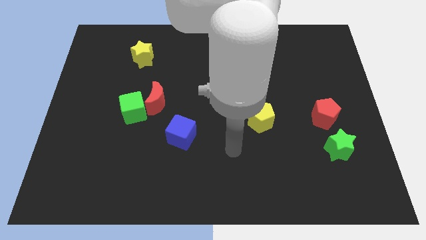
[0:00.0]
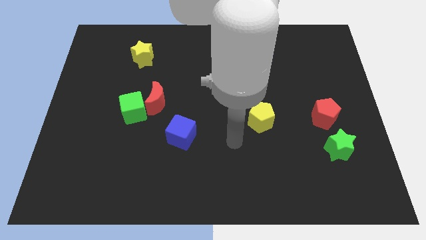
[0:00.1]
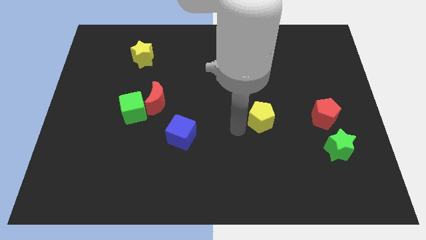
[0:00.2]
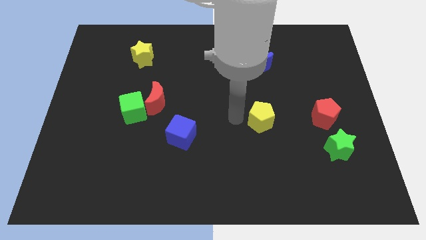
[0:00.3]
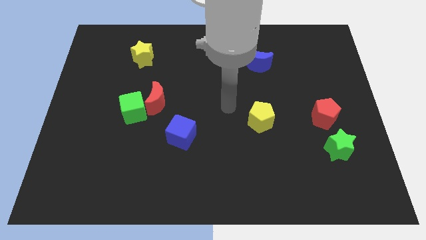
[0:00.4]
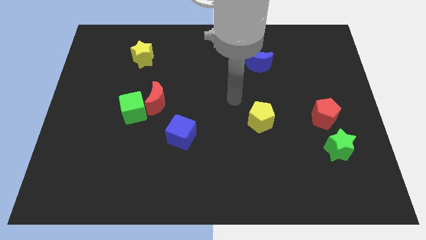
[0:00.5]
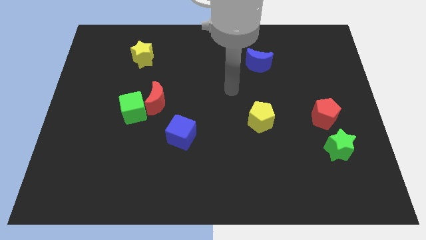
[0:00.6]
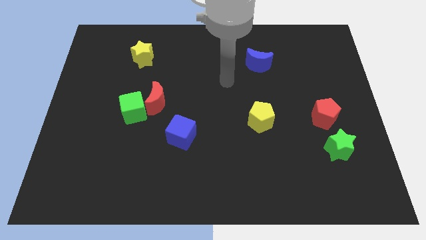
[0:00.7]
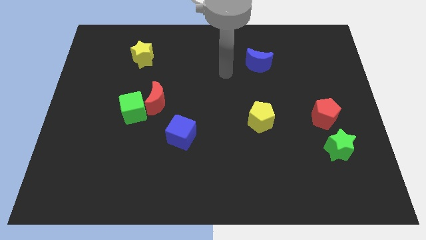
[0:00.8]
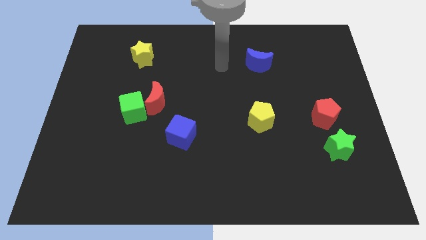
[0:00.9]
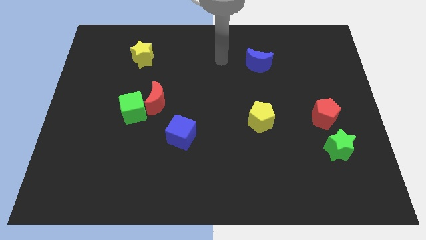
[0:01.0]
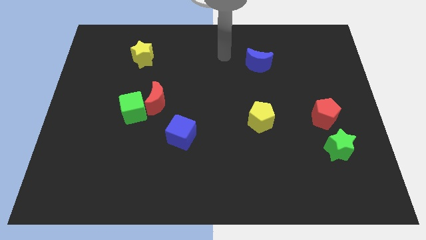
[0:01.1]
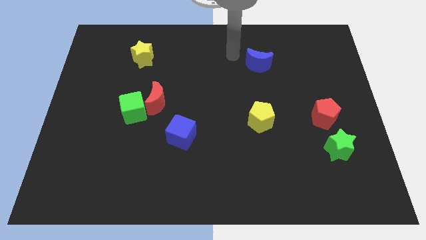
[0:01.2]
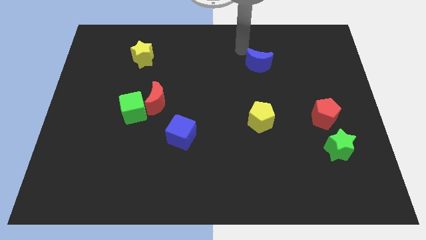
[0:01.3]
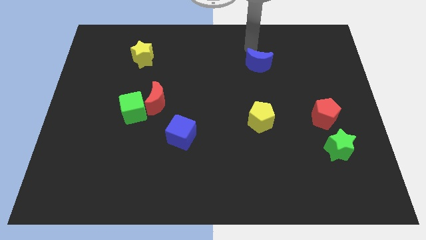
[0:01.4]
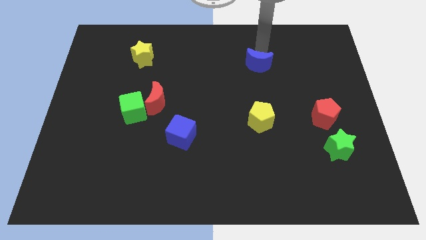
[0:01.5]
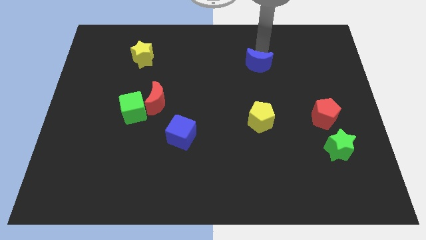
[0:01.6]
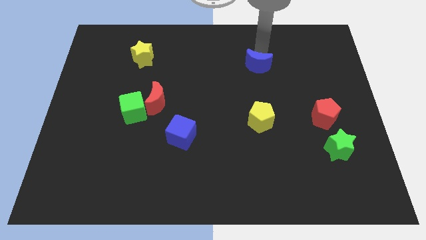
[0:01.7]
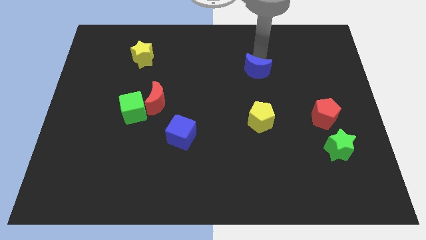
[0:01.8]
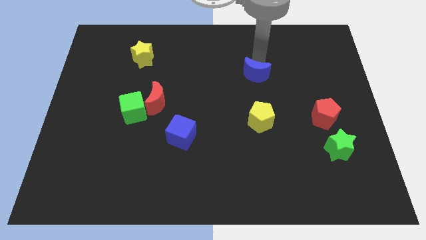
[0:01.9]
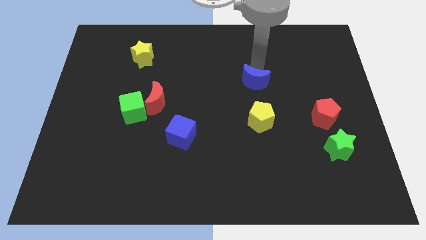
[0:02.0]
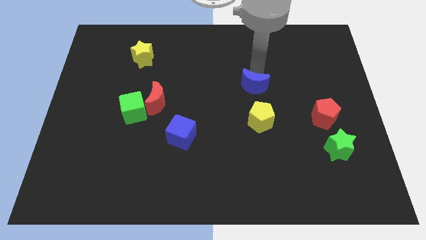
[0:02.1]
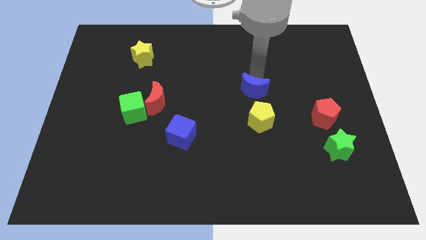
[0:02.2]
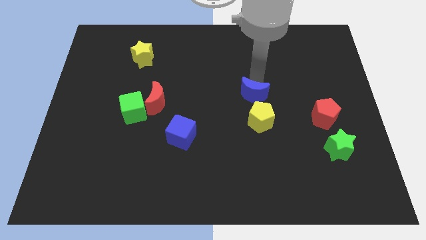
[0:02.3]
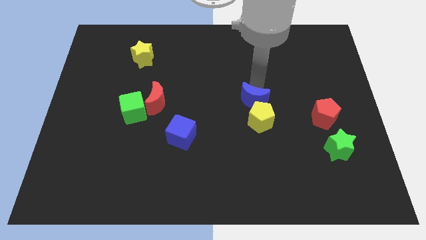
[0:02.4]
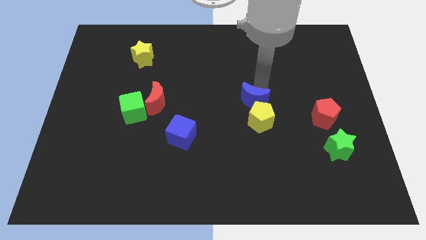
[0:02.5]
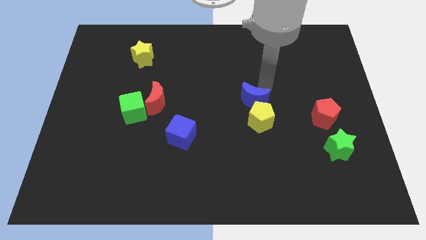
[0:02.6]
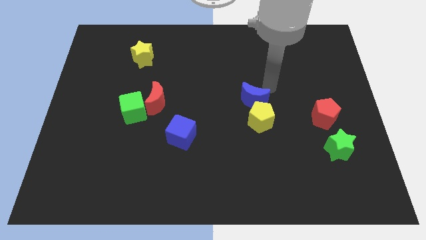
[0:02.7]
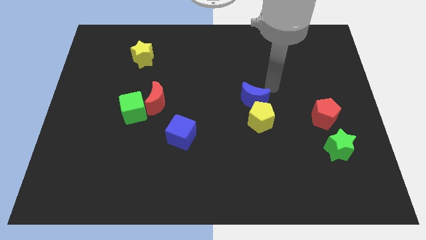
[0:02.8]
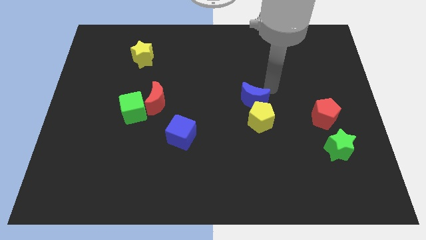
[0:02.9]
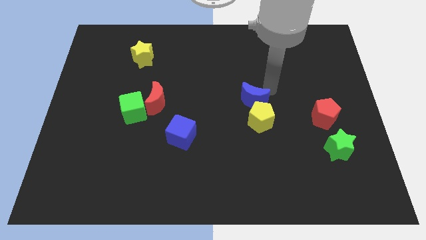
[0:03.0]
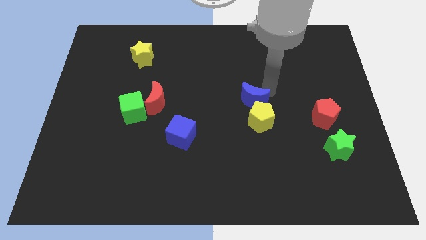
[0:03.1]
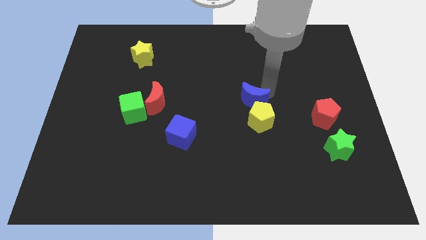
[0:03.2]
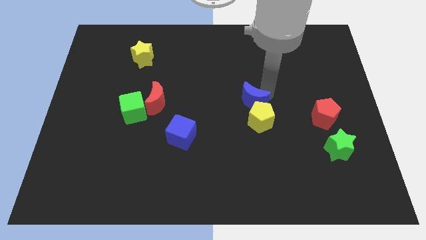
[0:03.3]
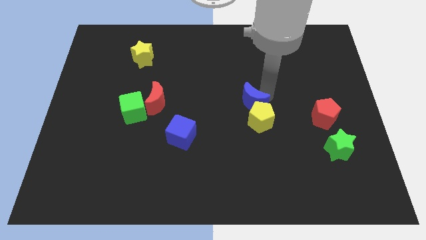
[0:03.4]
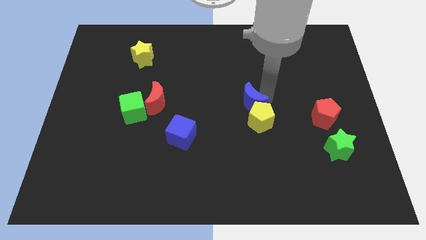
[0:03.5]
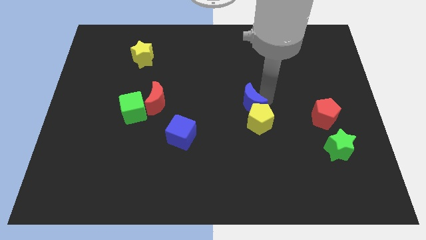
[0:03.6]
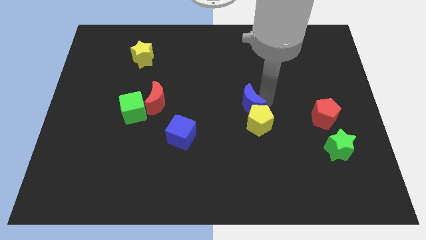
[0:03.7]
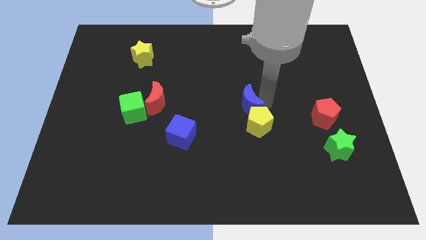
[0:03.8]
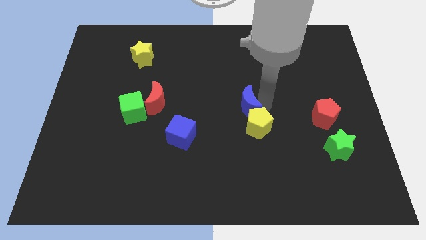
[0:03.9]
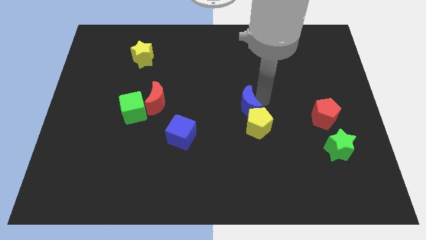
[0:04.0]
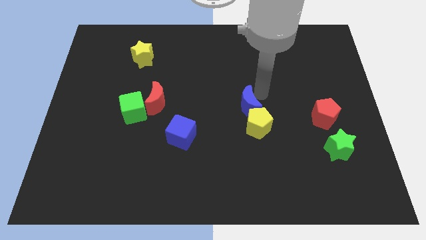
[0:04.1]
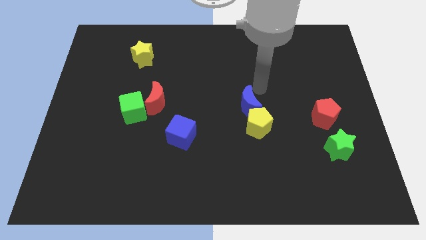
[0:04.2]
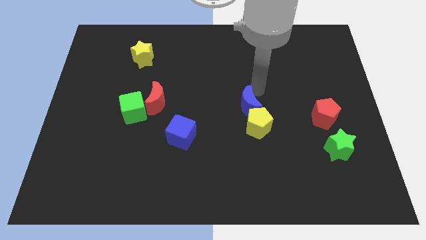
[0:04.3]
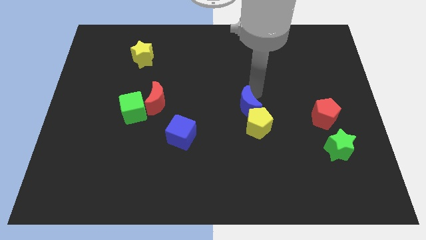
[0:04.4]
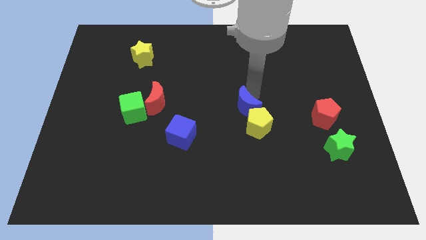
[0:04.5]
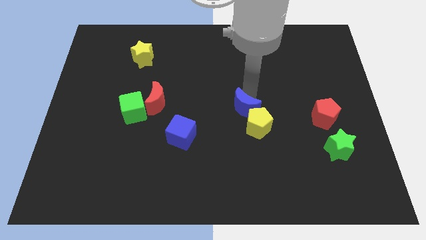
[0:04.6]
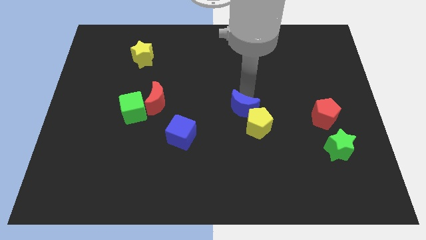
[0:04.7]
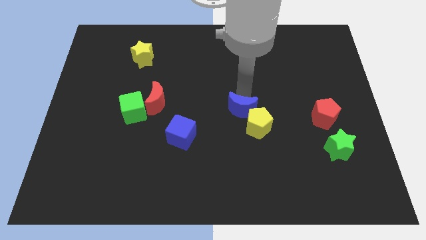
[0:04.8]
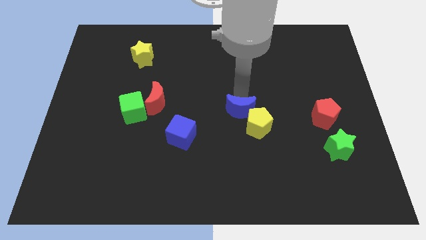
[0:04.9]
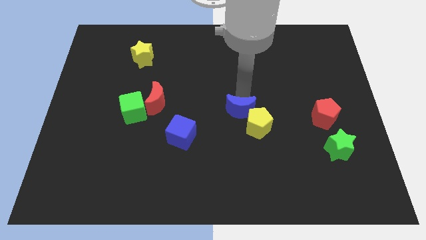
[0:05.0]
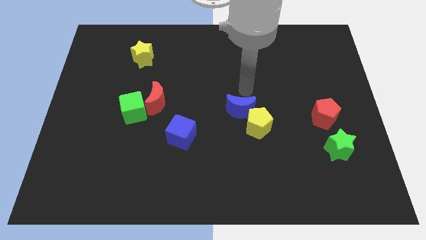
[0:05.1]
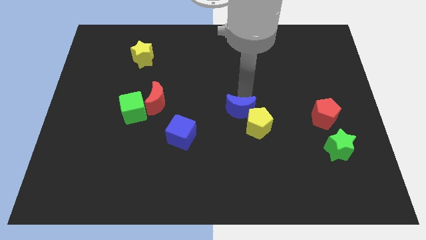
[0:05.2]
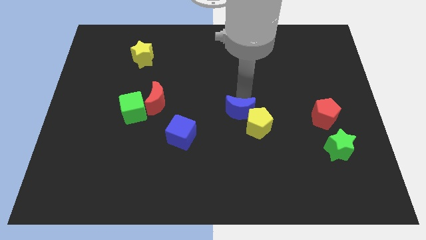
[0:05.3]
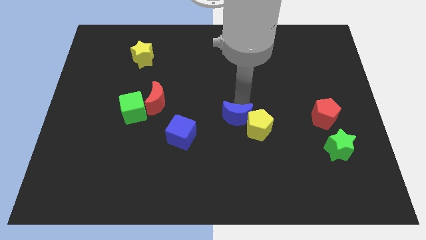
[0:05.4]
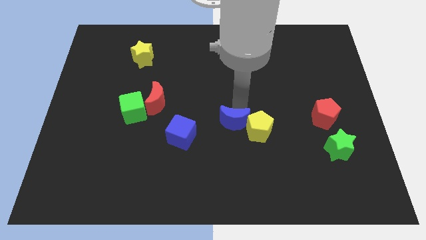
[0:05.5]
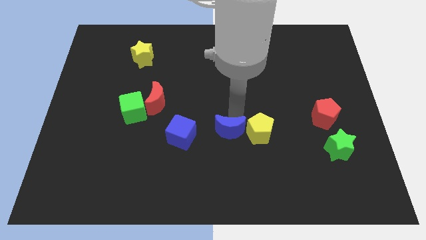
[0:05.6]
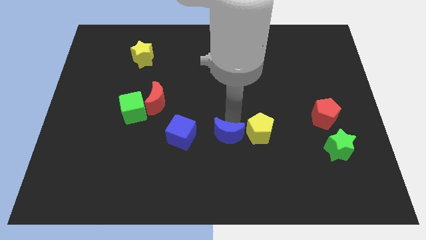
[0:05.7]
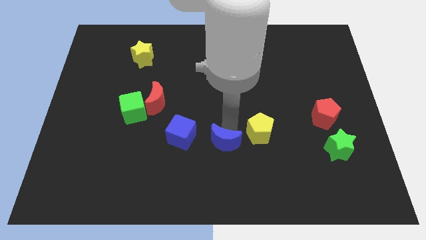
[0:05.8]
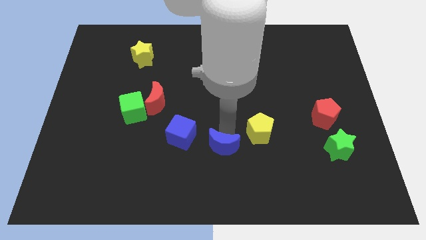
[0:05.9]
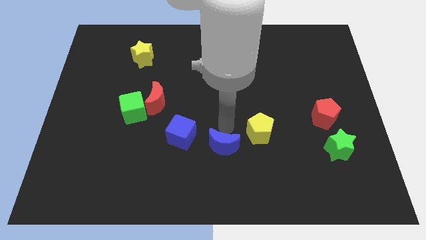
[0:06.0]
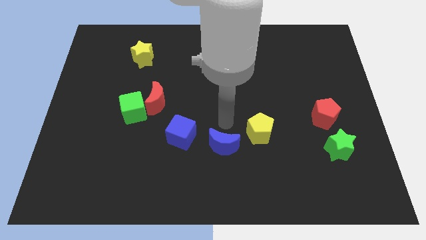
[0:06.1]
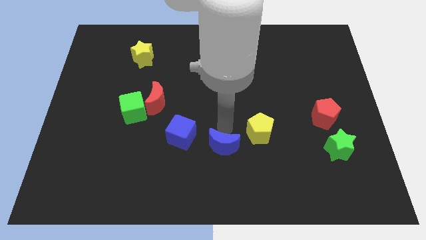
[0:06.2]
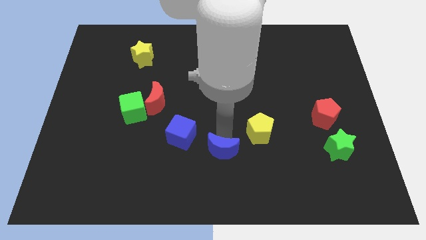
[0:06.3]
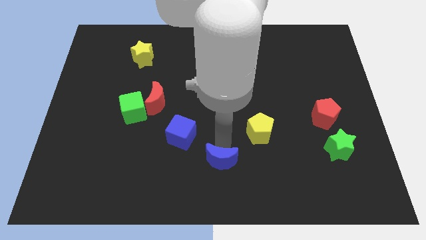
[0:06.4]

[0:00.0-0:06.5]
slide the blue moon to the bottom
